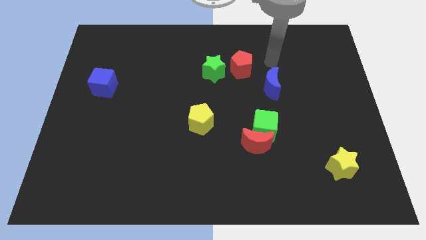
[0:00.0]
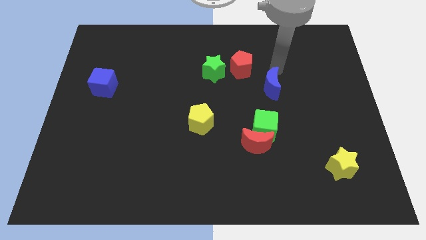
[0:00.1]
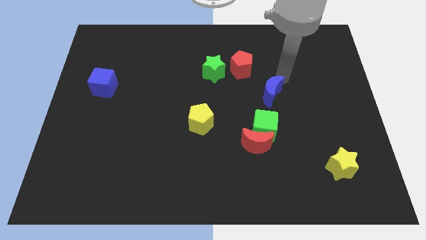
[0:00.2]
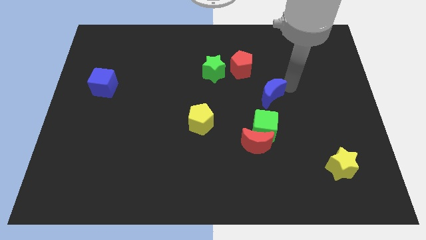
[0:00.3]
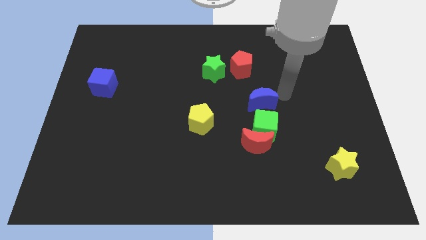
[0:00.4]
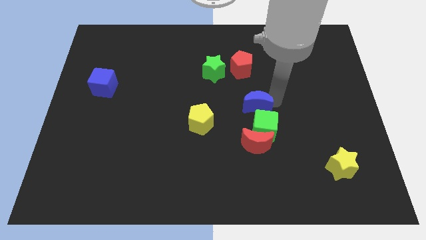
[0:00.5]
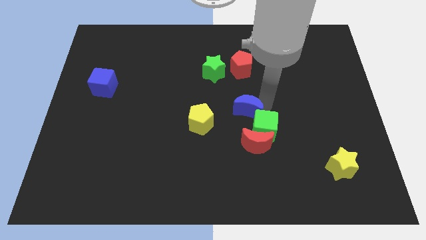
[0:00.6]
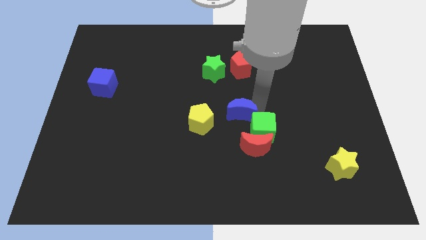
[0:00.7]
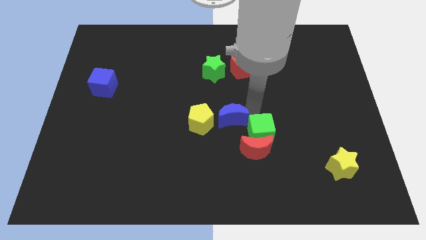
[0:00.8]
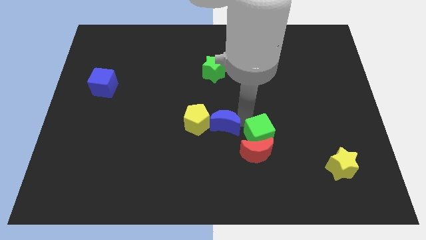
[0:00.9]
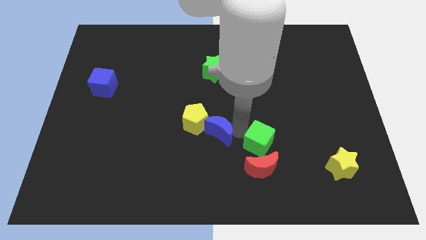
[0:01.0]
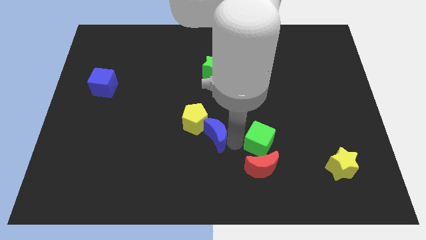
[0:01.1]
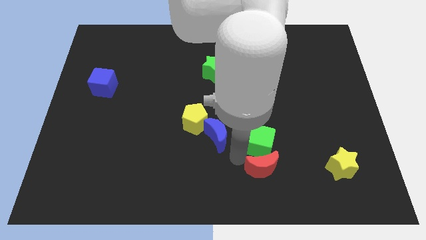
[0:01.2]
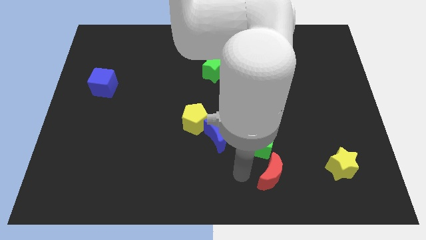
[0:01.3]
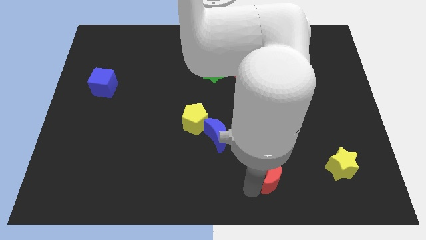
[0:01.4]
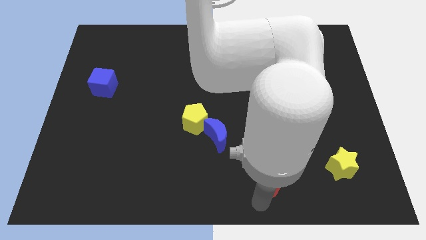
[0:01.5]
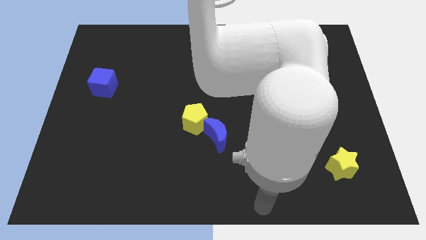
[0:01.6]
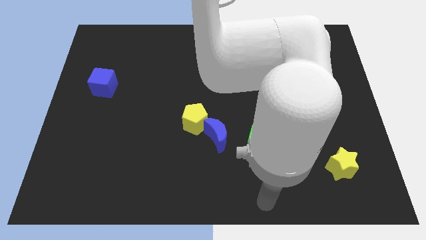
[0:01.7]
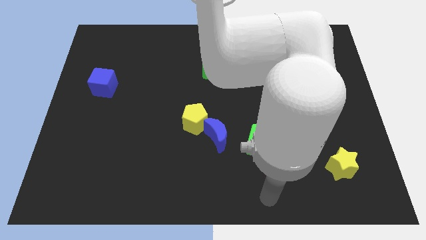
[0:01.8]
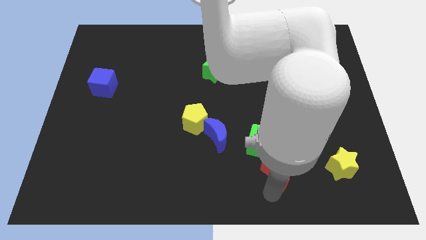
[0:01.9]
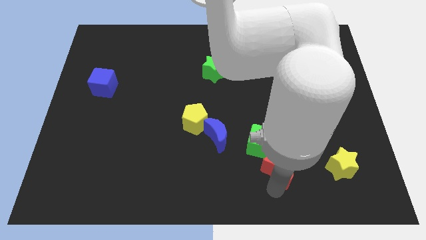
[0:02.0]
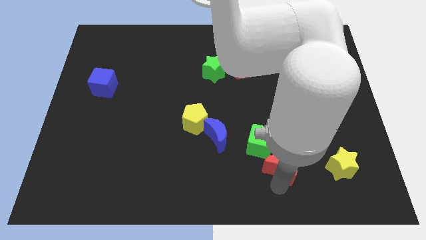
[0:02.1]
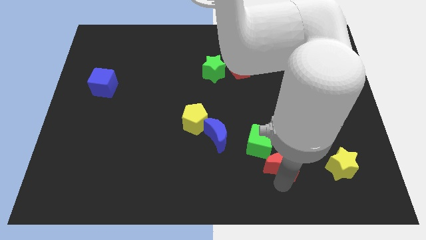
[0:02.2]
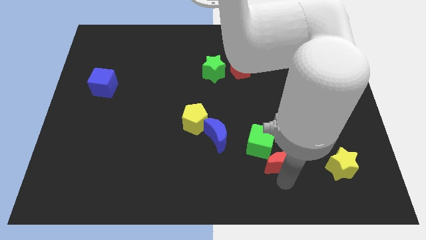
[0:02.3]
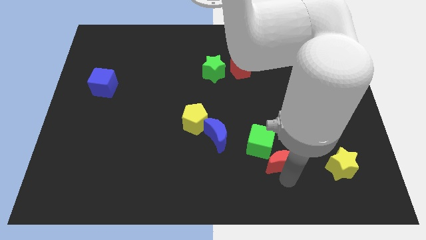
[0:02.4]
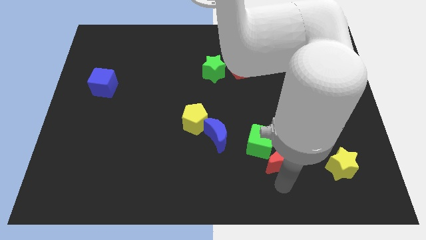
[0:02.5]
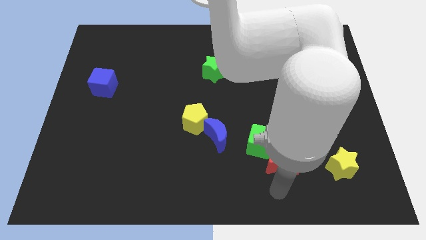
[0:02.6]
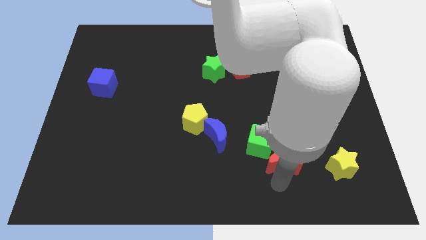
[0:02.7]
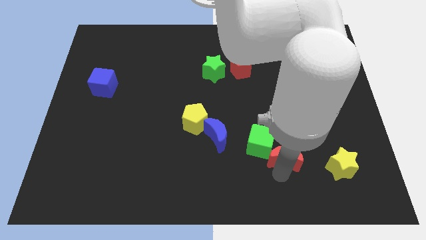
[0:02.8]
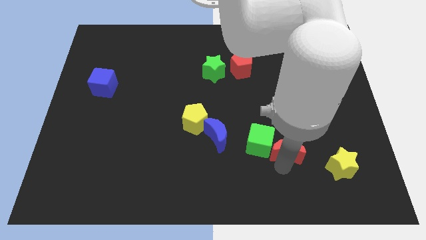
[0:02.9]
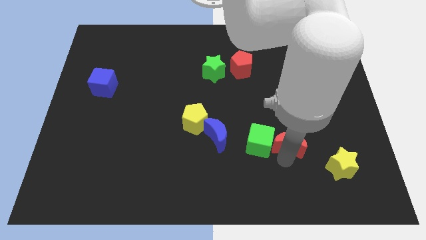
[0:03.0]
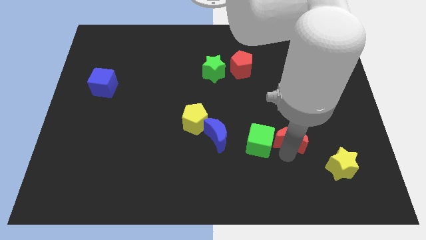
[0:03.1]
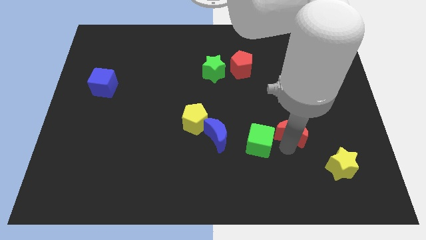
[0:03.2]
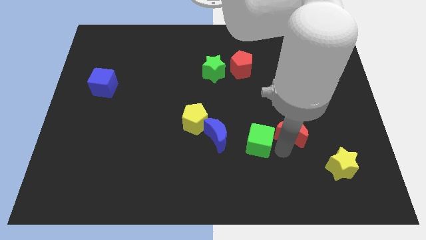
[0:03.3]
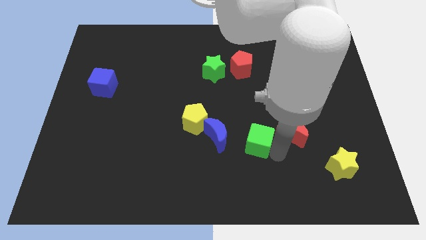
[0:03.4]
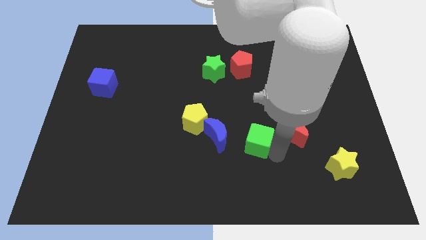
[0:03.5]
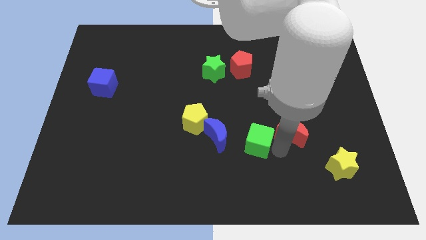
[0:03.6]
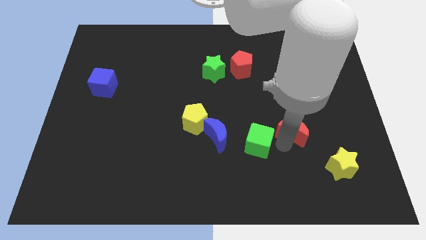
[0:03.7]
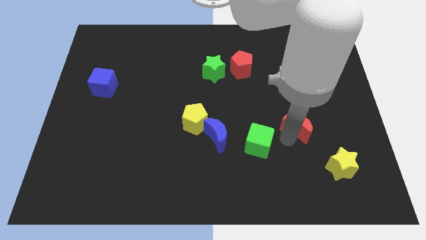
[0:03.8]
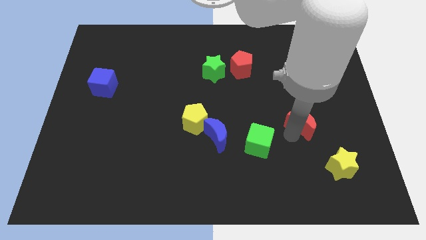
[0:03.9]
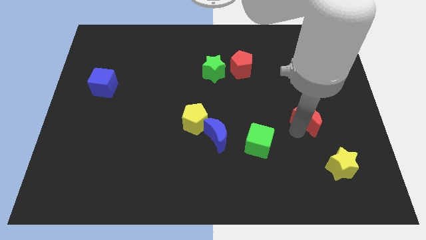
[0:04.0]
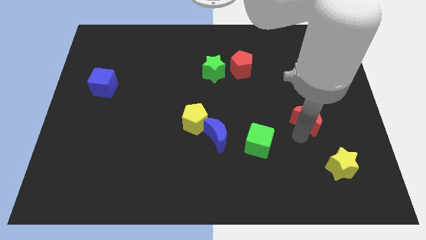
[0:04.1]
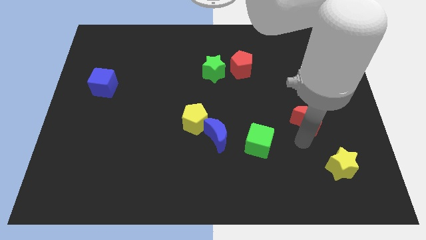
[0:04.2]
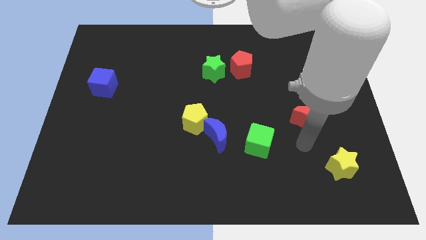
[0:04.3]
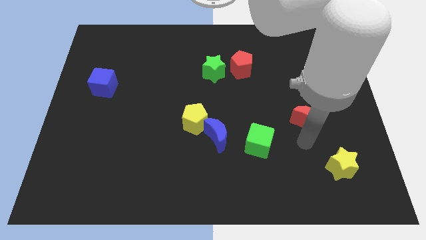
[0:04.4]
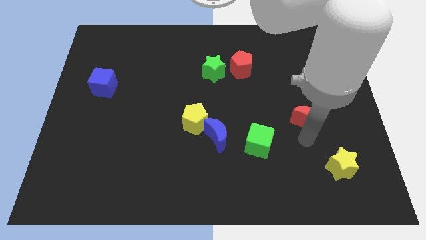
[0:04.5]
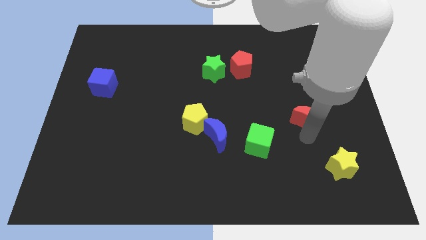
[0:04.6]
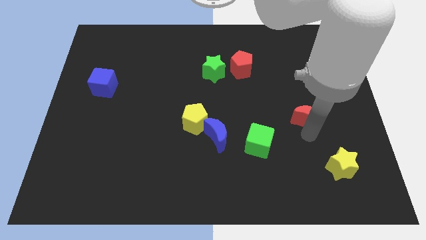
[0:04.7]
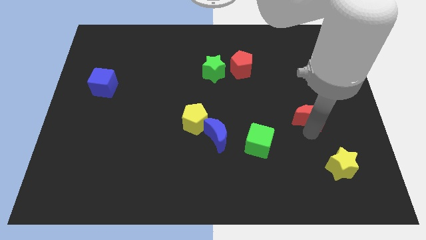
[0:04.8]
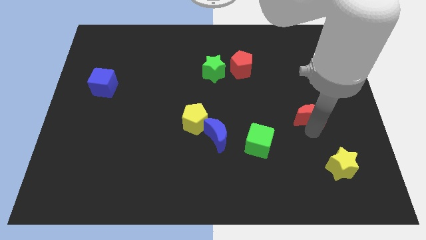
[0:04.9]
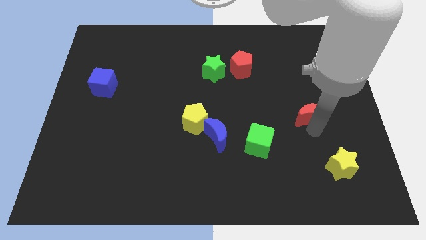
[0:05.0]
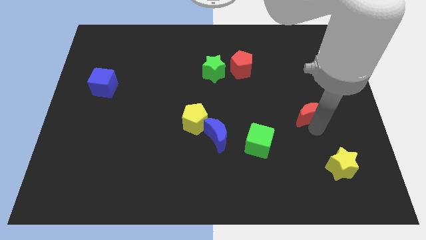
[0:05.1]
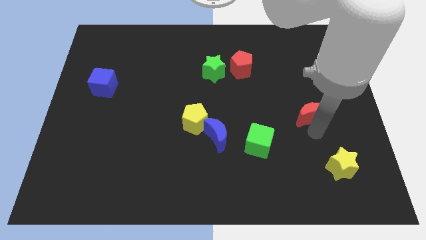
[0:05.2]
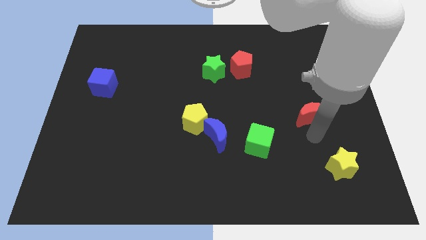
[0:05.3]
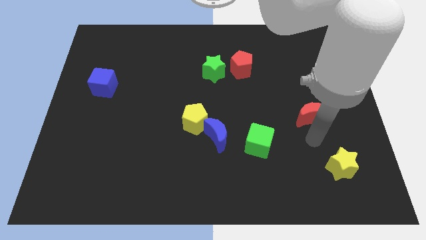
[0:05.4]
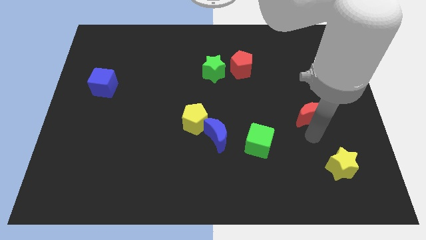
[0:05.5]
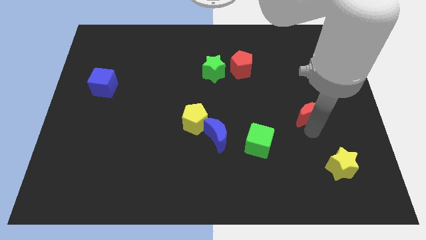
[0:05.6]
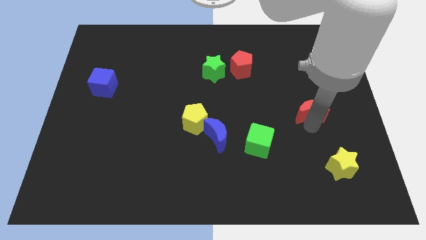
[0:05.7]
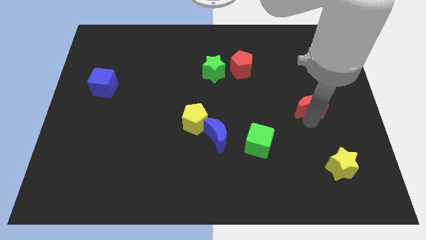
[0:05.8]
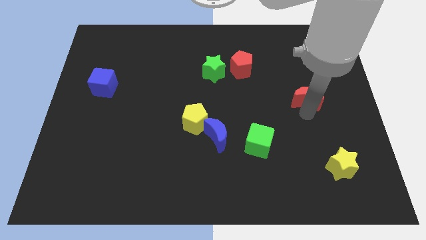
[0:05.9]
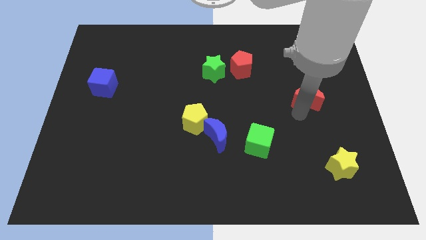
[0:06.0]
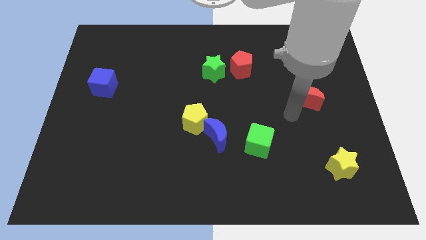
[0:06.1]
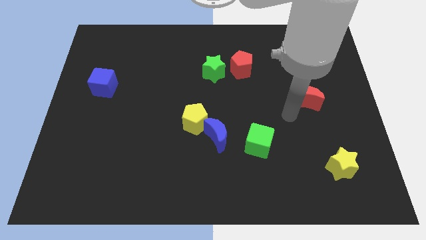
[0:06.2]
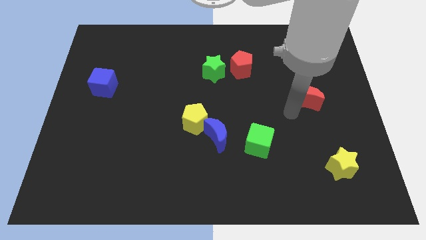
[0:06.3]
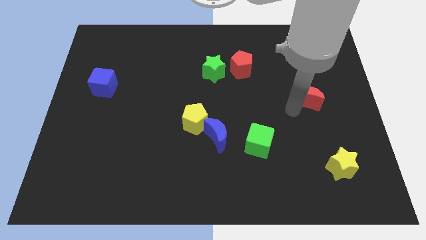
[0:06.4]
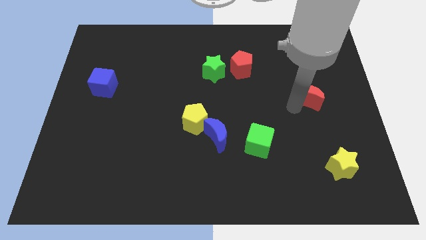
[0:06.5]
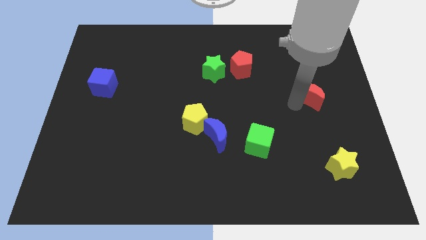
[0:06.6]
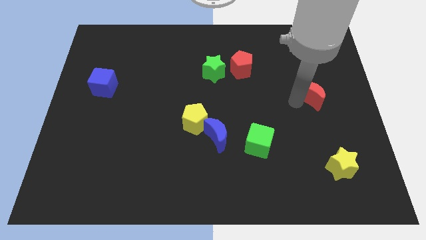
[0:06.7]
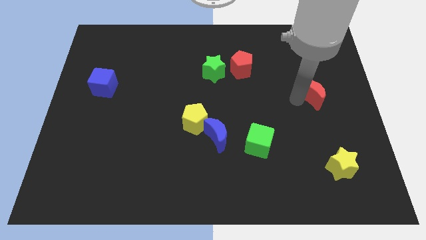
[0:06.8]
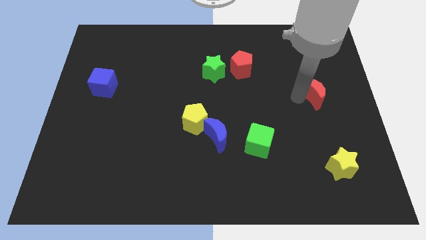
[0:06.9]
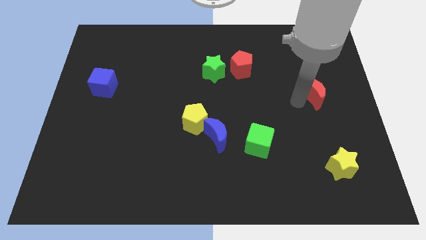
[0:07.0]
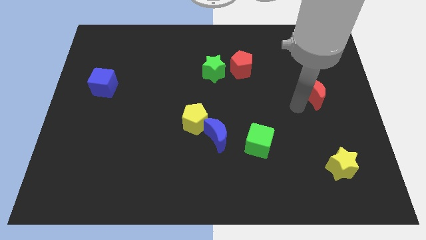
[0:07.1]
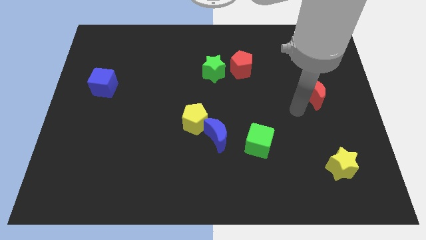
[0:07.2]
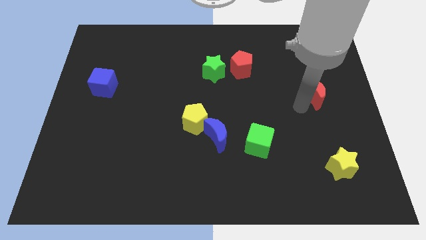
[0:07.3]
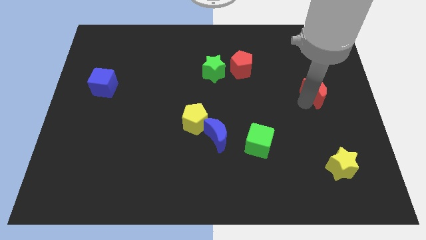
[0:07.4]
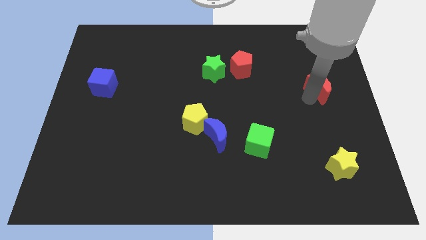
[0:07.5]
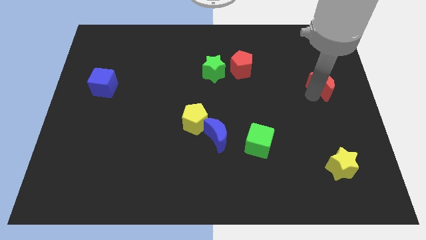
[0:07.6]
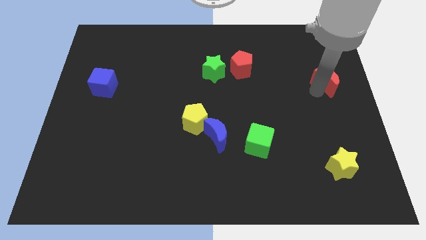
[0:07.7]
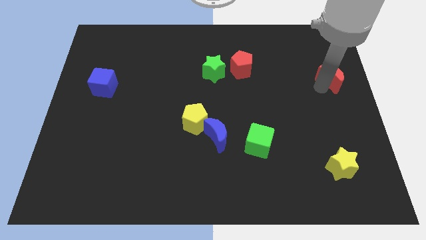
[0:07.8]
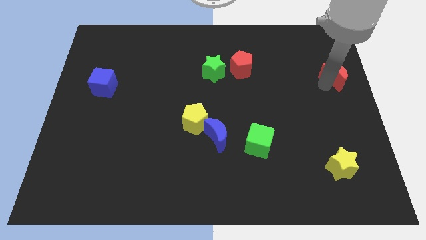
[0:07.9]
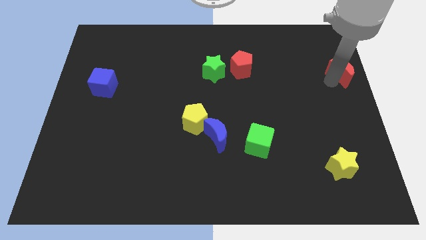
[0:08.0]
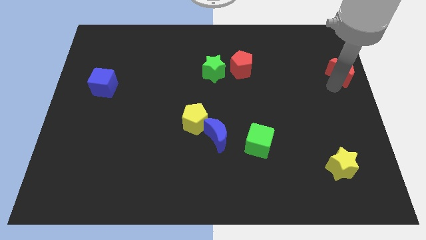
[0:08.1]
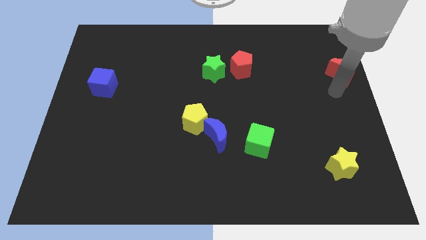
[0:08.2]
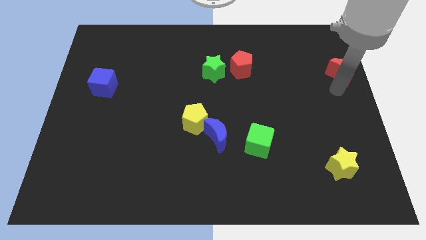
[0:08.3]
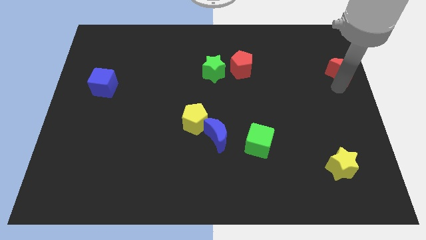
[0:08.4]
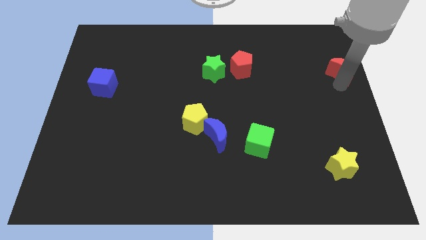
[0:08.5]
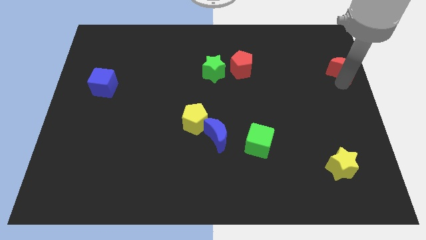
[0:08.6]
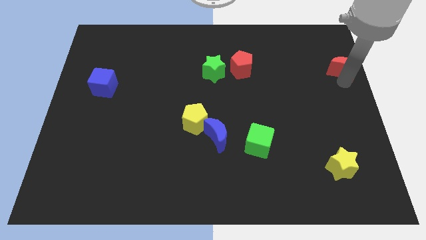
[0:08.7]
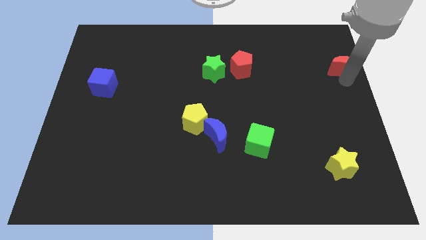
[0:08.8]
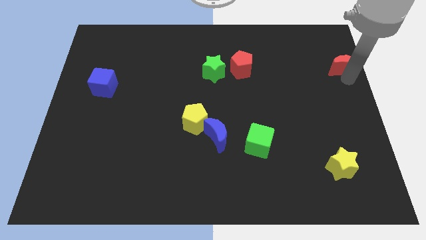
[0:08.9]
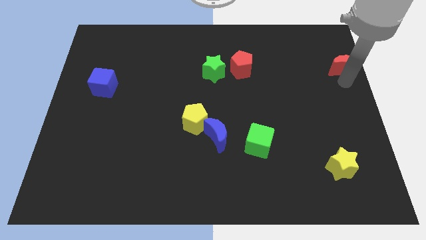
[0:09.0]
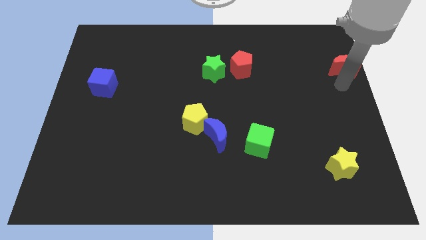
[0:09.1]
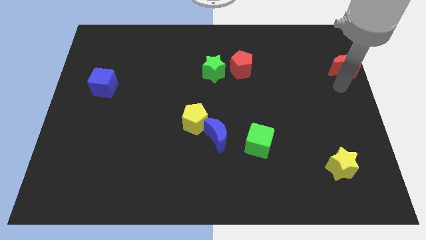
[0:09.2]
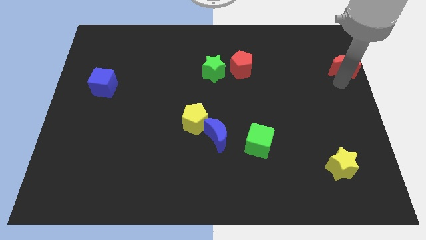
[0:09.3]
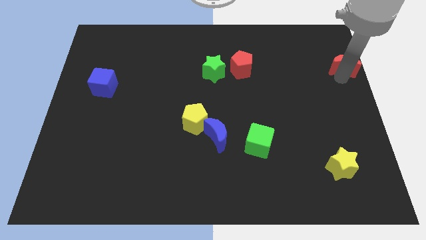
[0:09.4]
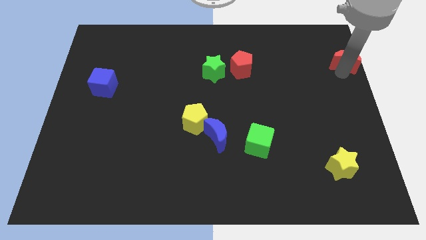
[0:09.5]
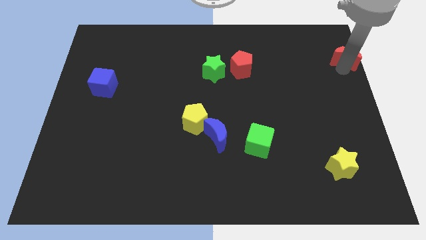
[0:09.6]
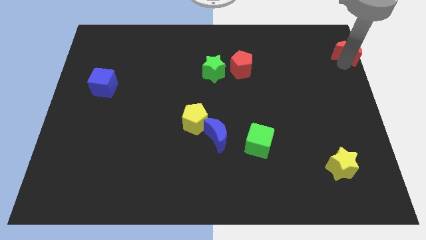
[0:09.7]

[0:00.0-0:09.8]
move the red moon to the top right
